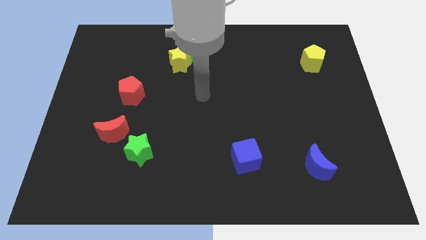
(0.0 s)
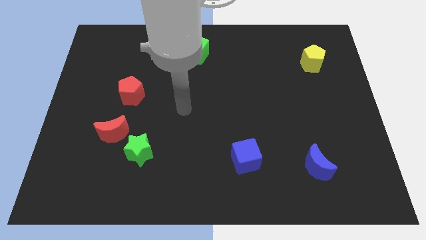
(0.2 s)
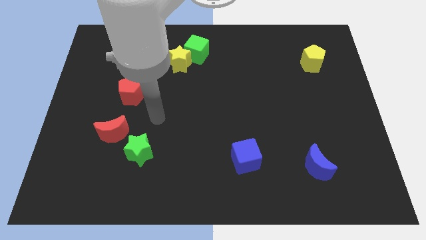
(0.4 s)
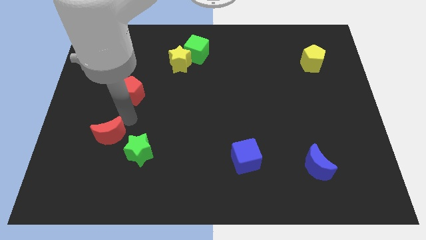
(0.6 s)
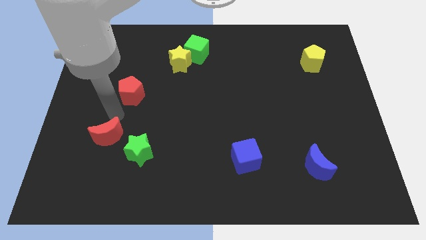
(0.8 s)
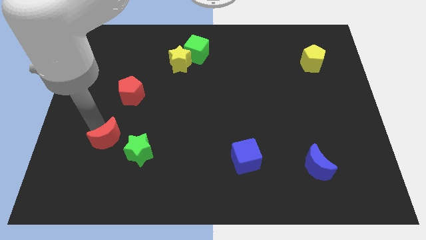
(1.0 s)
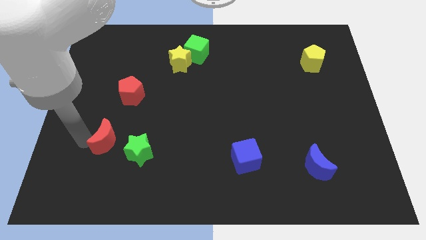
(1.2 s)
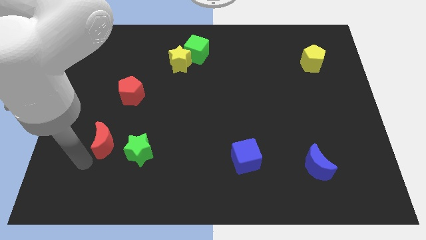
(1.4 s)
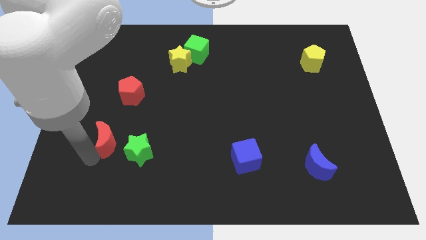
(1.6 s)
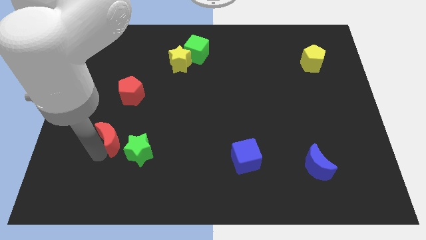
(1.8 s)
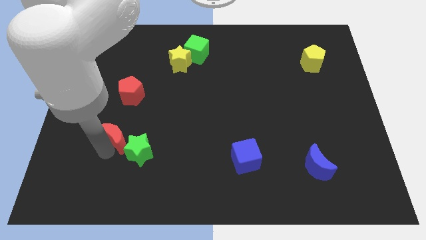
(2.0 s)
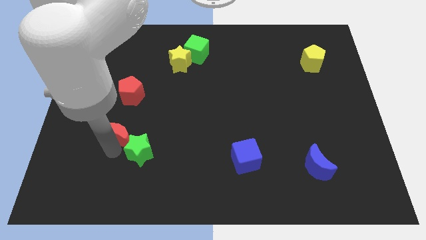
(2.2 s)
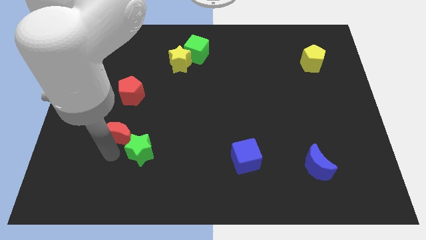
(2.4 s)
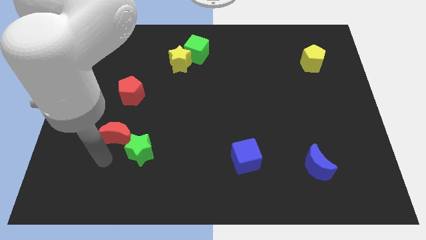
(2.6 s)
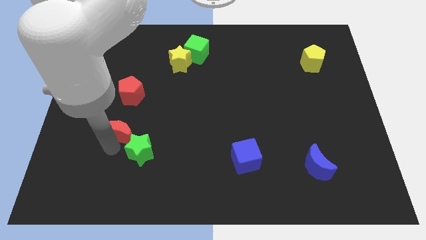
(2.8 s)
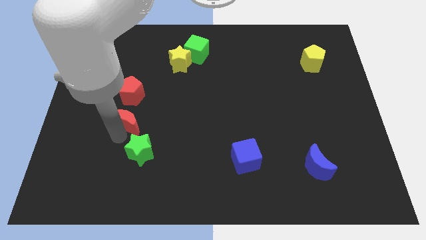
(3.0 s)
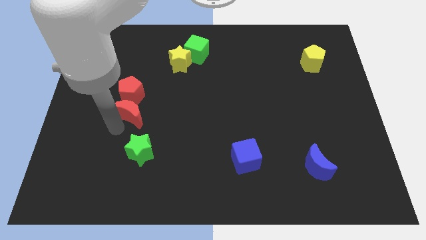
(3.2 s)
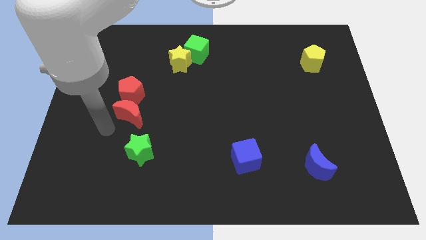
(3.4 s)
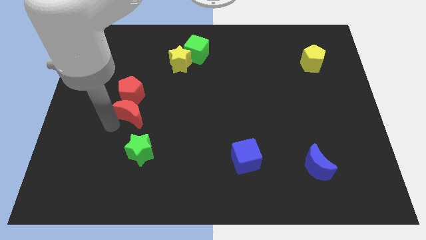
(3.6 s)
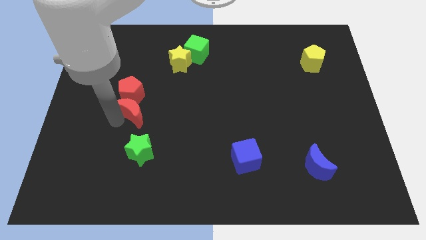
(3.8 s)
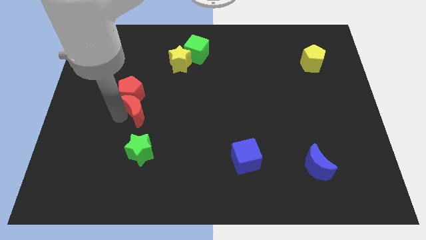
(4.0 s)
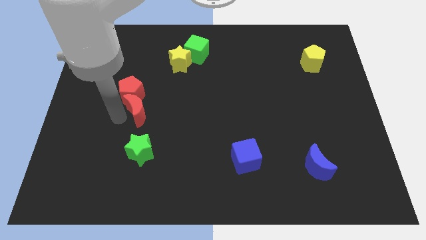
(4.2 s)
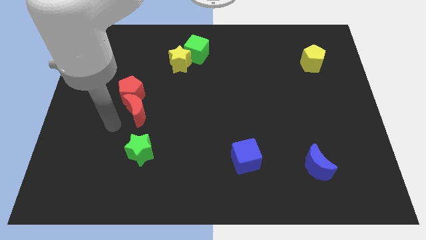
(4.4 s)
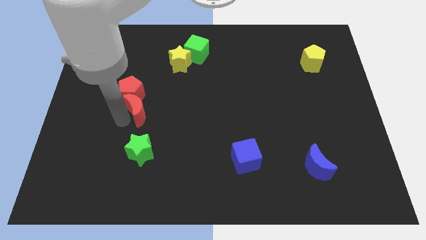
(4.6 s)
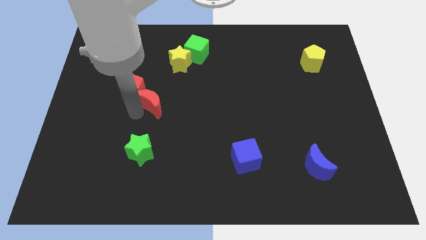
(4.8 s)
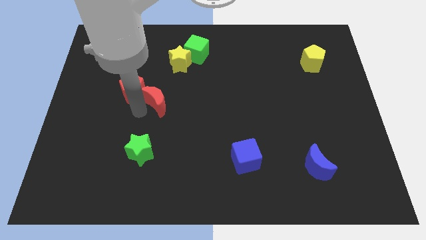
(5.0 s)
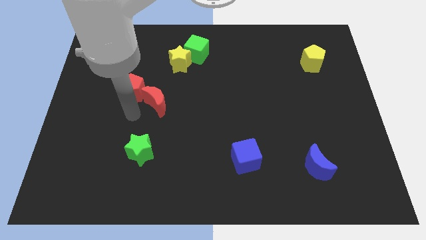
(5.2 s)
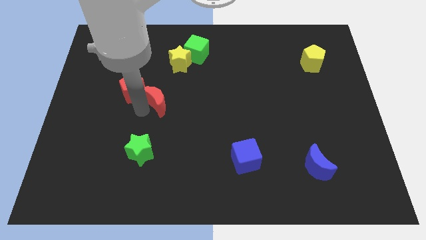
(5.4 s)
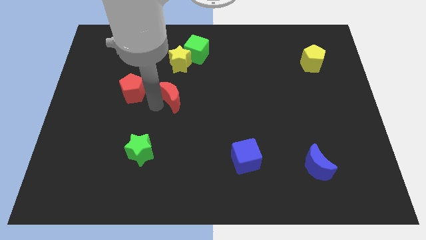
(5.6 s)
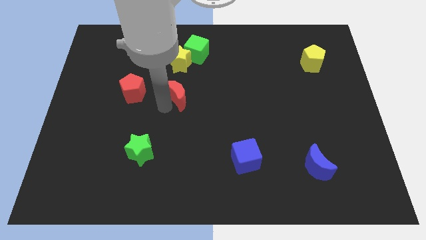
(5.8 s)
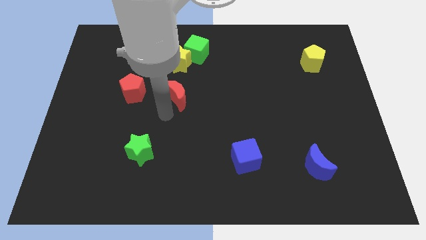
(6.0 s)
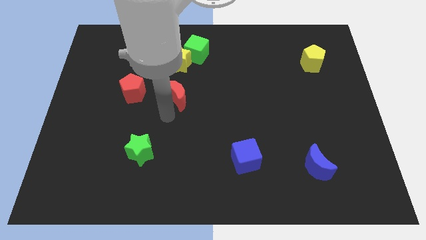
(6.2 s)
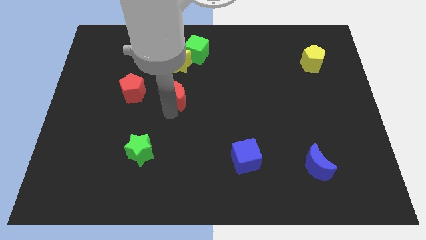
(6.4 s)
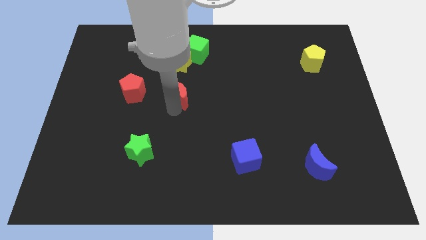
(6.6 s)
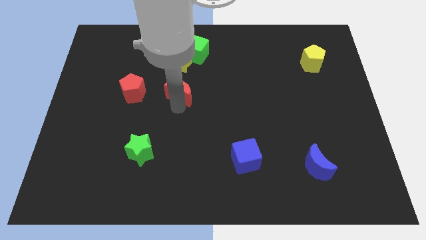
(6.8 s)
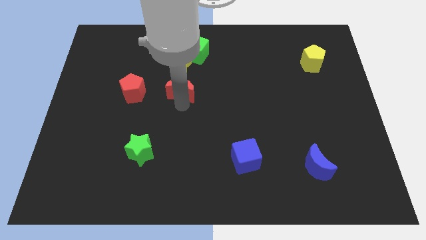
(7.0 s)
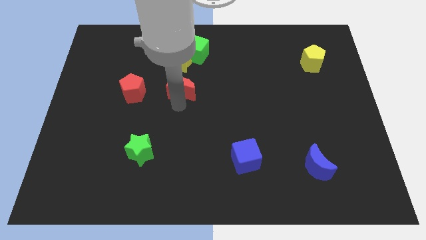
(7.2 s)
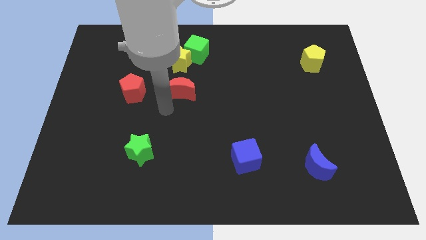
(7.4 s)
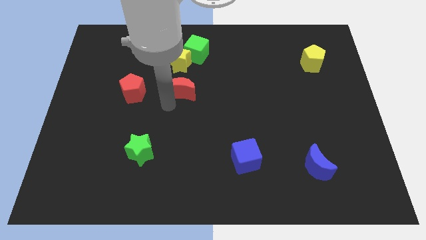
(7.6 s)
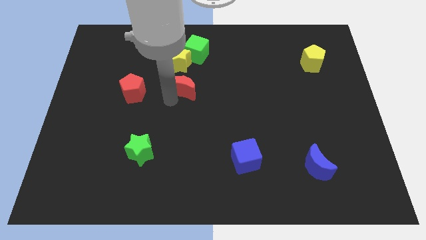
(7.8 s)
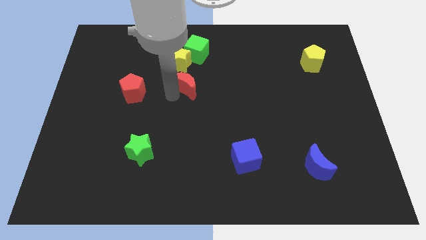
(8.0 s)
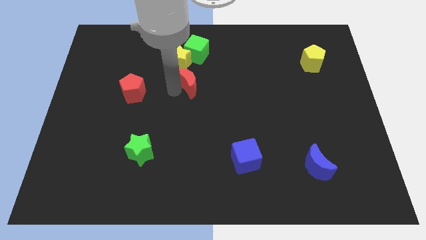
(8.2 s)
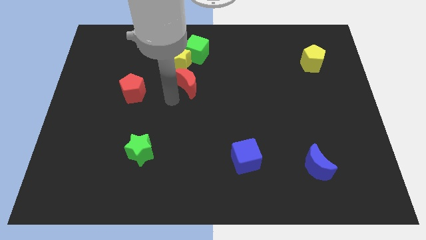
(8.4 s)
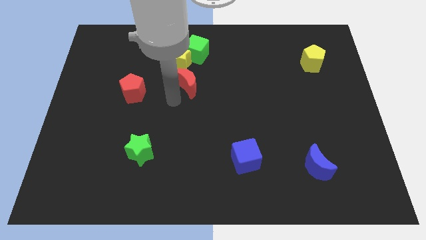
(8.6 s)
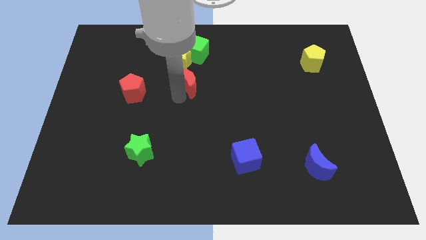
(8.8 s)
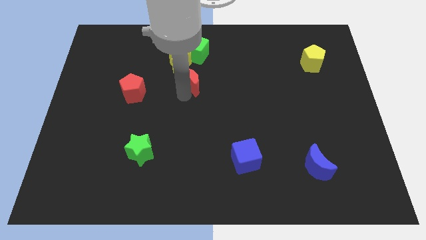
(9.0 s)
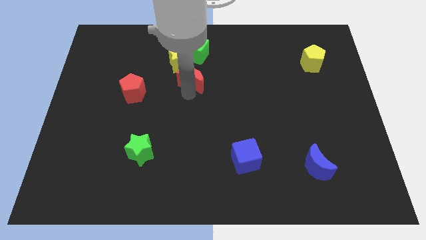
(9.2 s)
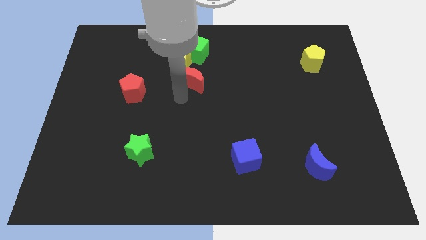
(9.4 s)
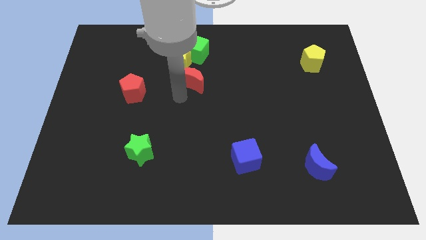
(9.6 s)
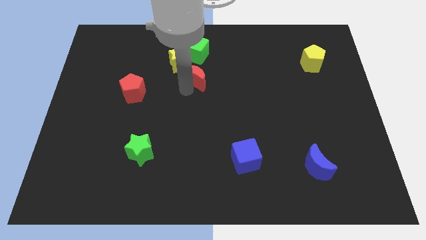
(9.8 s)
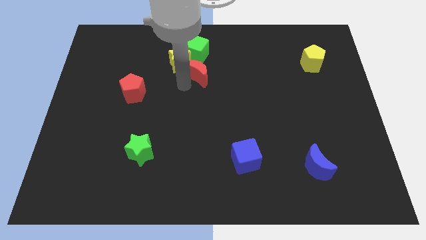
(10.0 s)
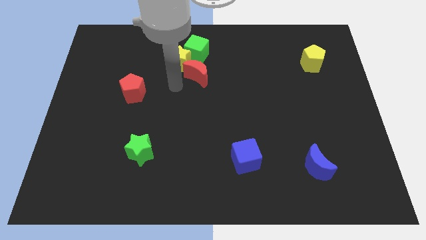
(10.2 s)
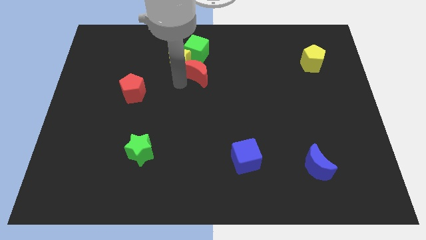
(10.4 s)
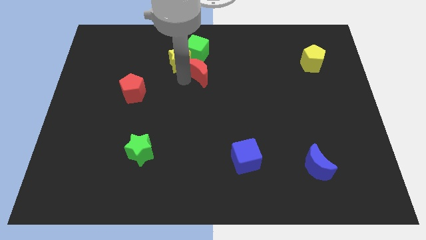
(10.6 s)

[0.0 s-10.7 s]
push the red moon to the bottom right side of the green cube
